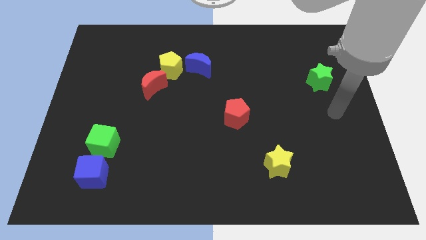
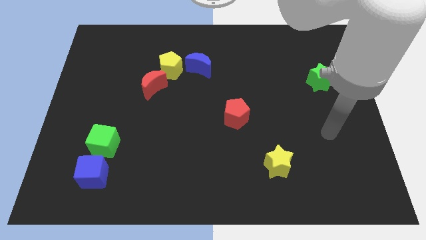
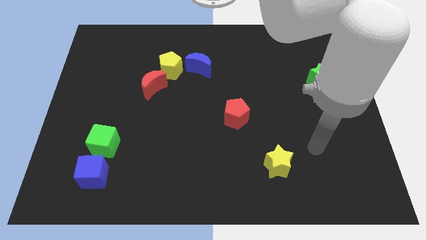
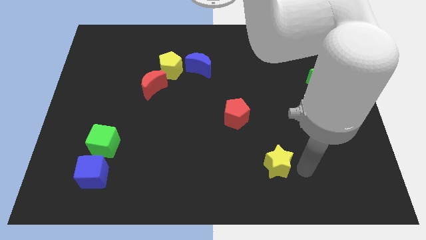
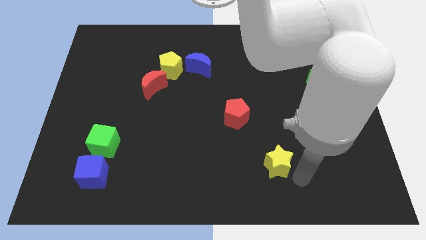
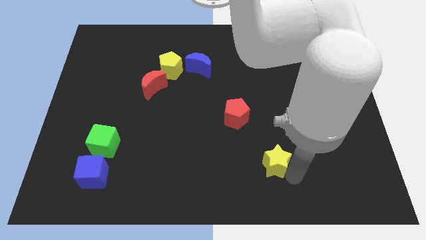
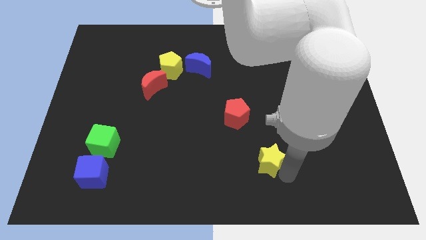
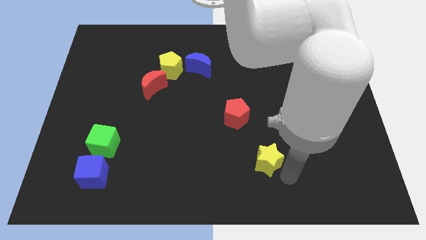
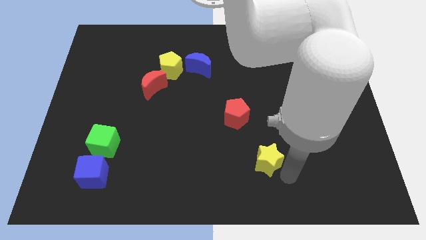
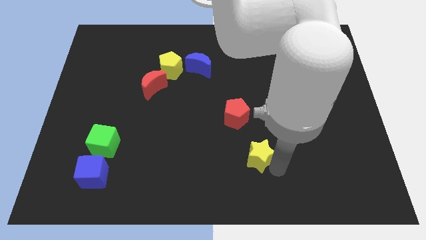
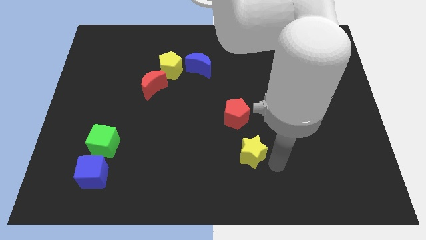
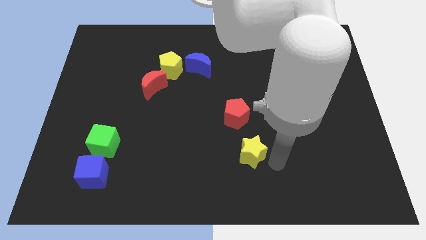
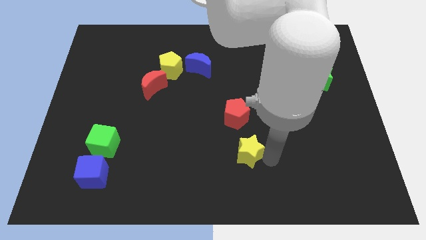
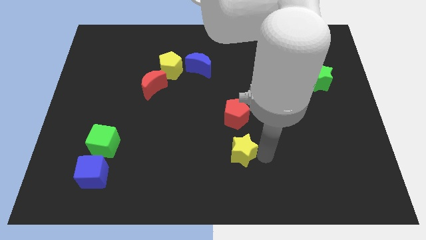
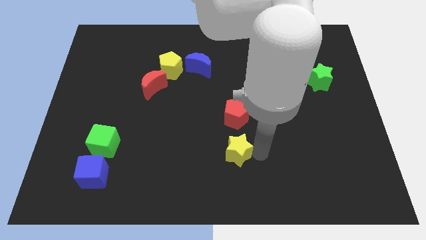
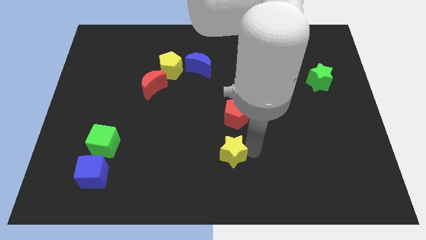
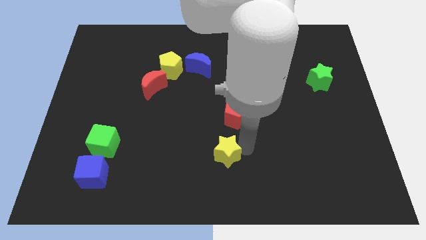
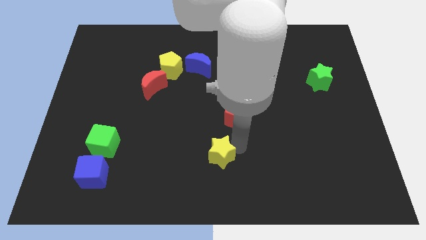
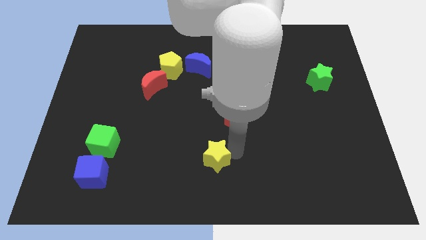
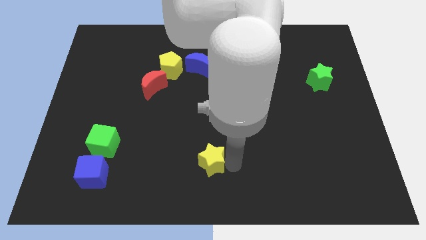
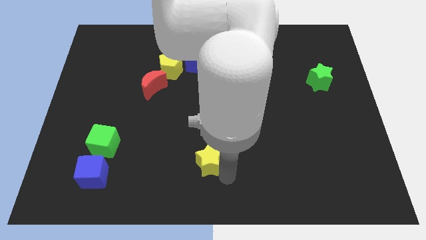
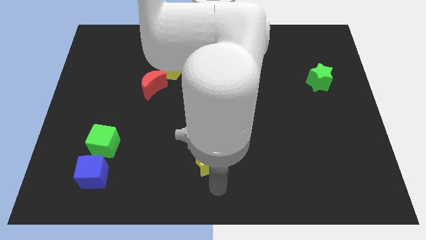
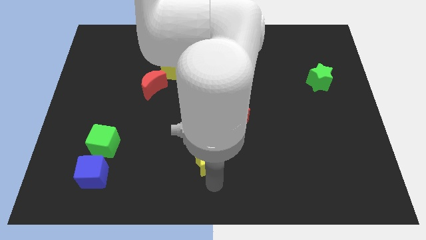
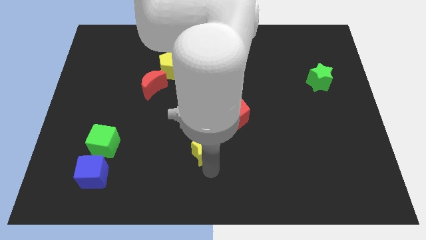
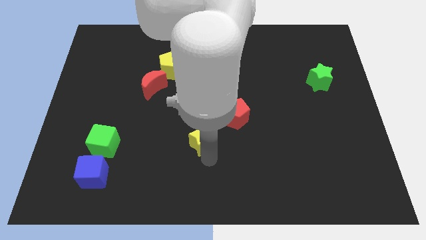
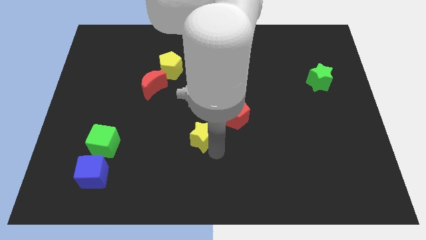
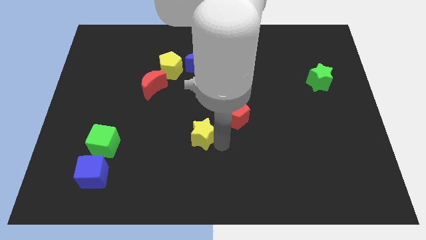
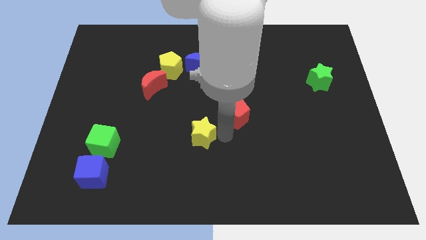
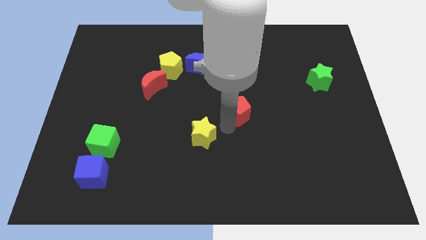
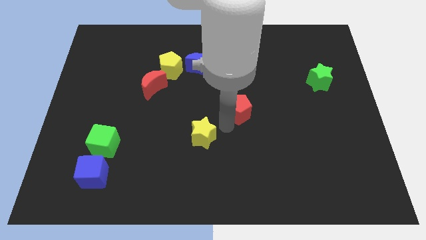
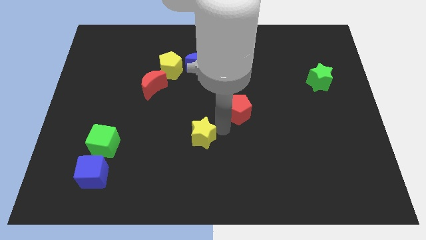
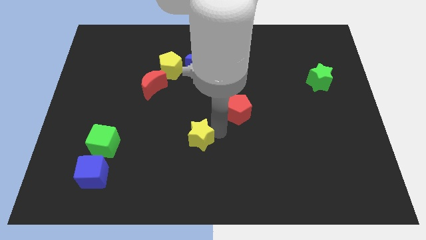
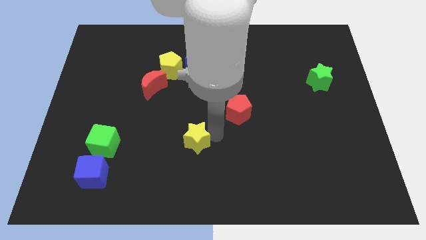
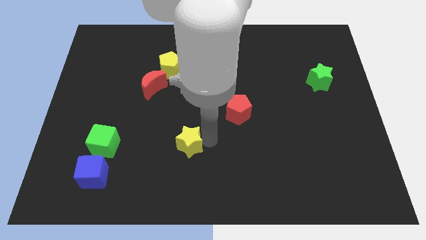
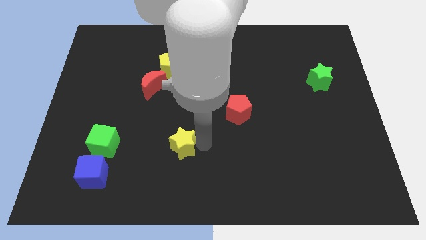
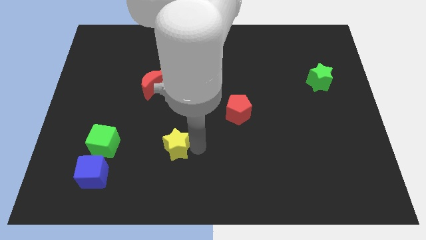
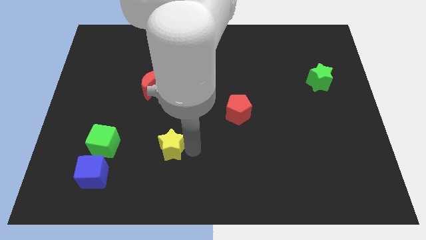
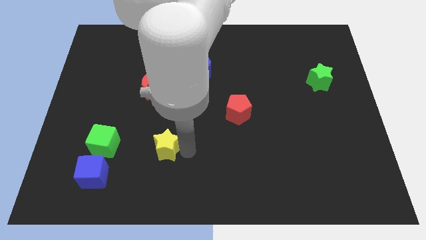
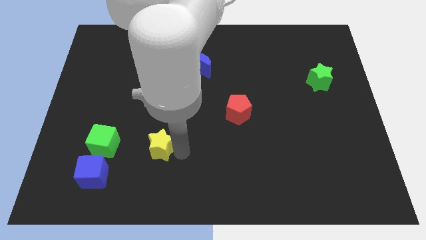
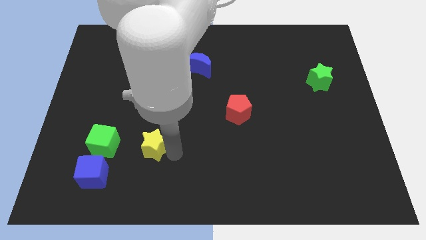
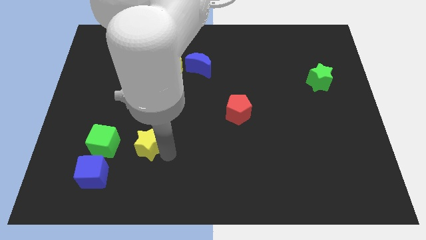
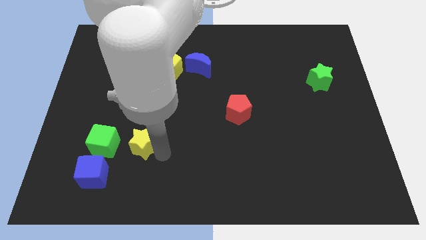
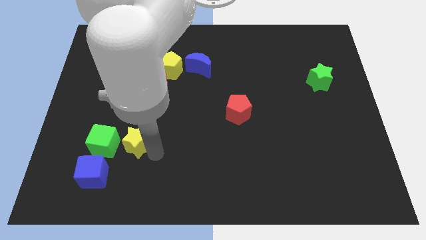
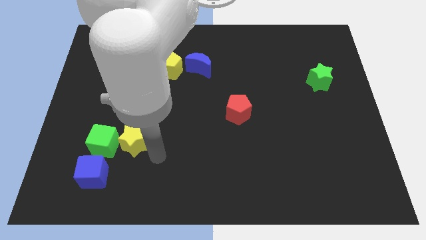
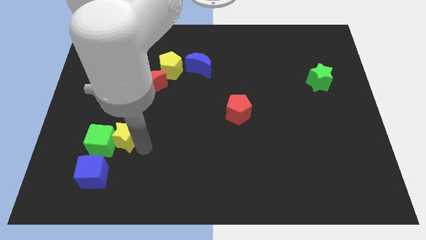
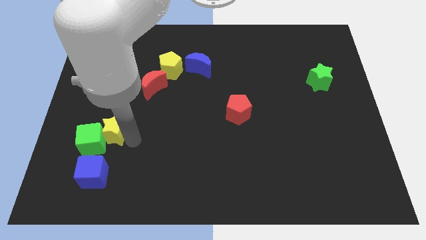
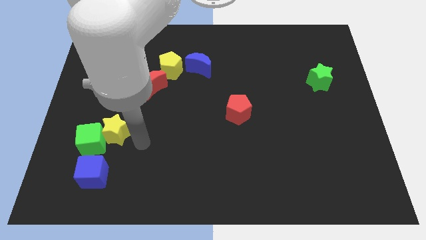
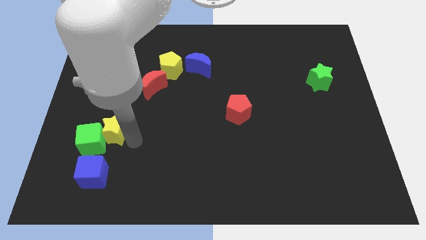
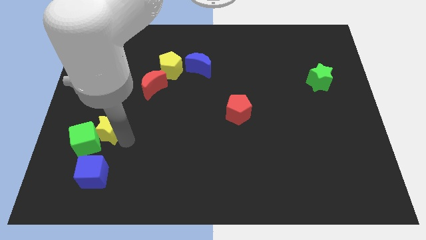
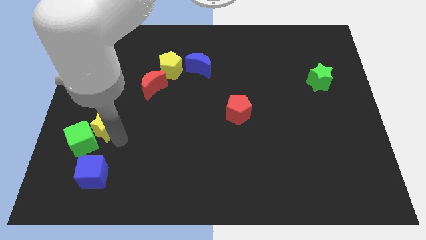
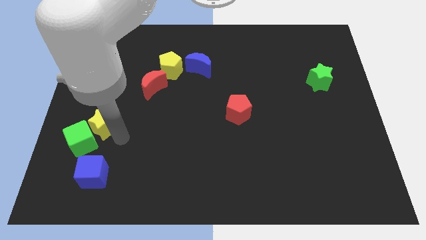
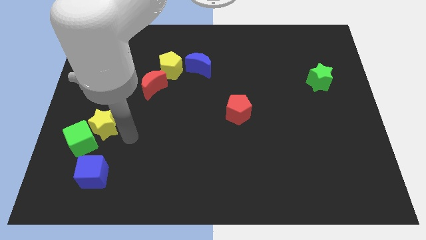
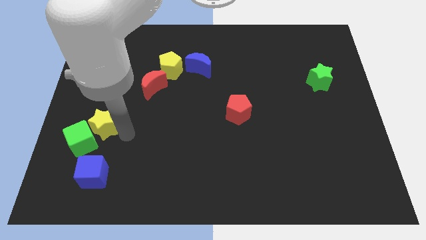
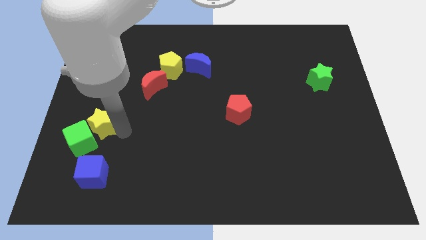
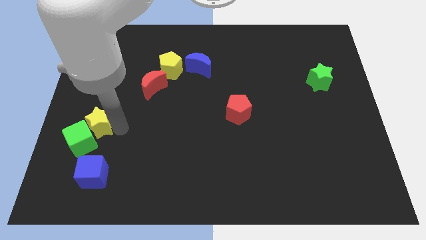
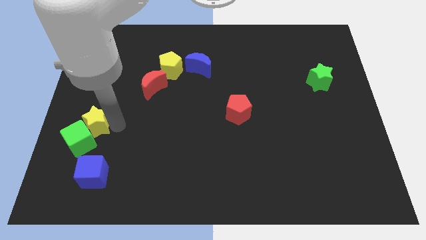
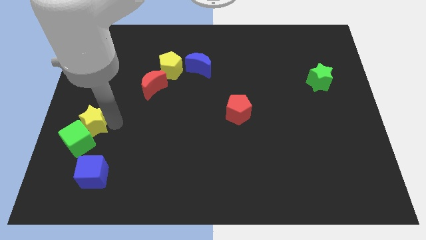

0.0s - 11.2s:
slide the yellow star to the left side
